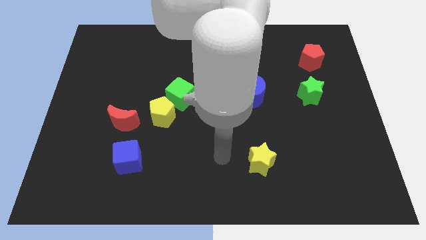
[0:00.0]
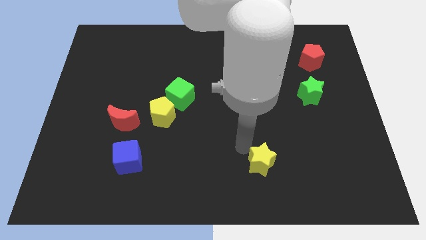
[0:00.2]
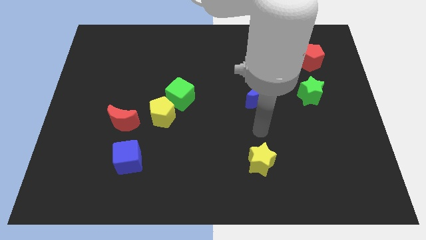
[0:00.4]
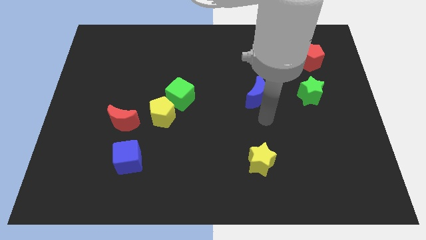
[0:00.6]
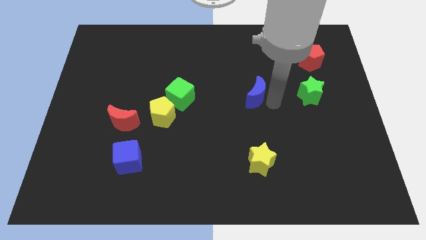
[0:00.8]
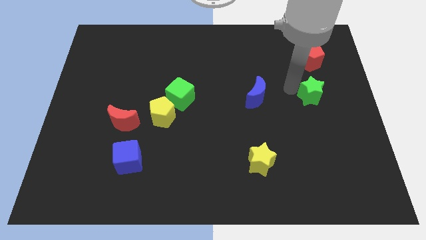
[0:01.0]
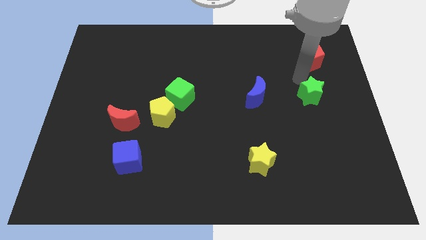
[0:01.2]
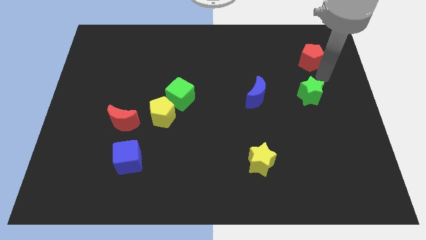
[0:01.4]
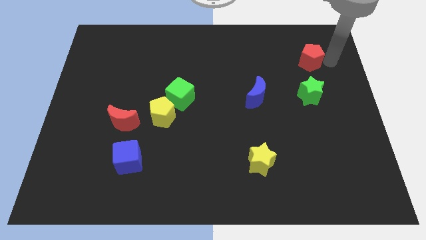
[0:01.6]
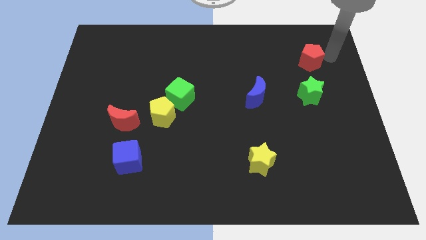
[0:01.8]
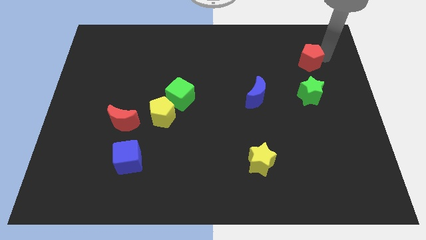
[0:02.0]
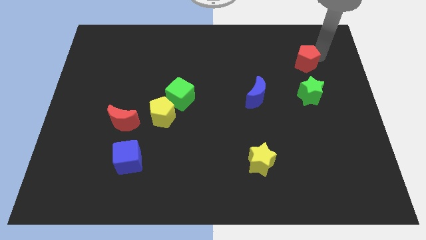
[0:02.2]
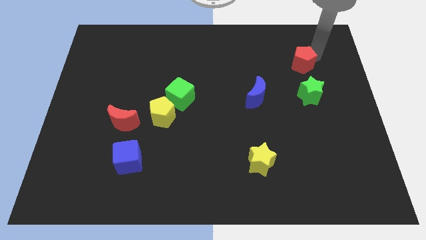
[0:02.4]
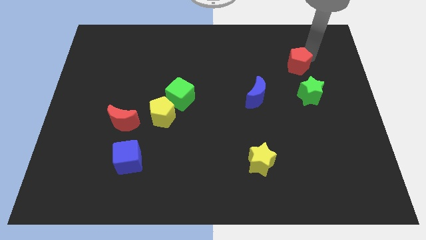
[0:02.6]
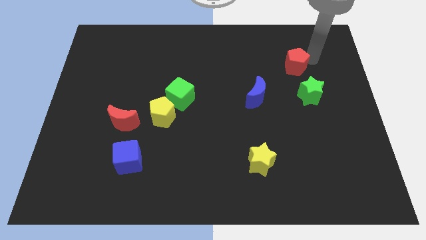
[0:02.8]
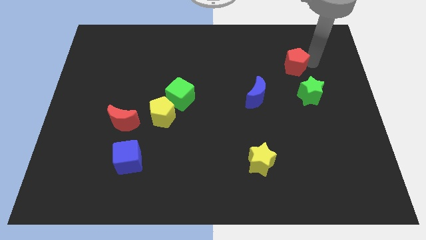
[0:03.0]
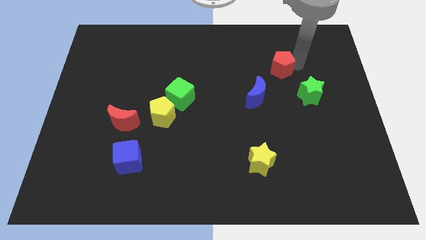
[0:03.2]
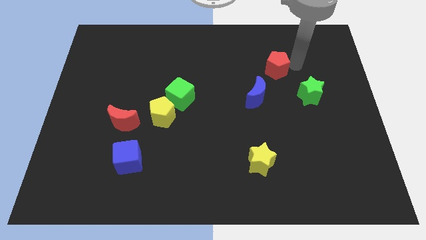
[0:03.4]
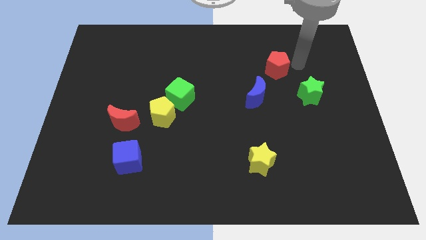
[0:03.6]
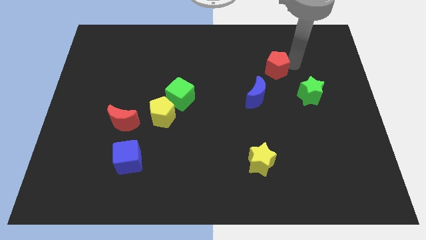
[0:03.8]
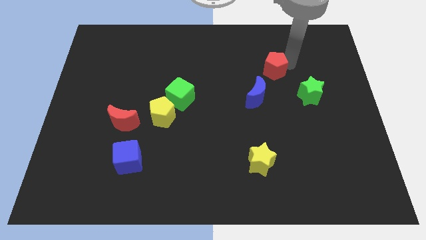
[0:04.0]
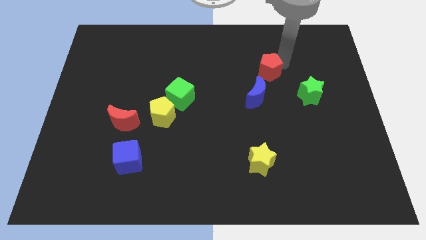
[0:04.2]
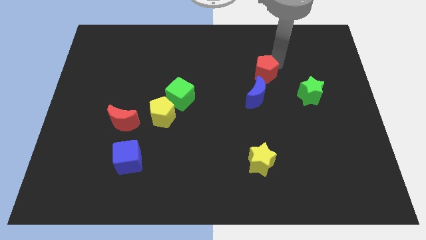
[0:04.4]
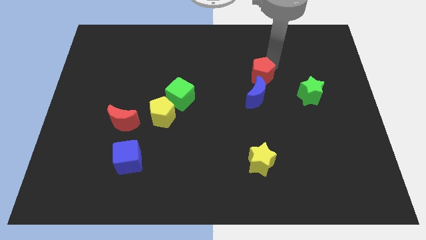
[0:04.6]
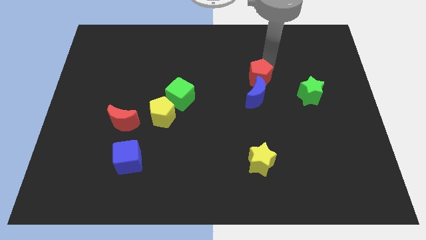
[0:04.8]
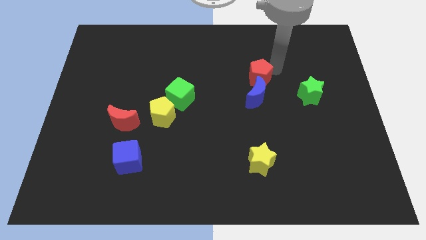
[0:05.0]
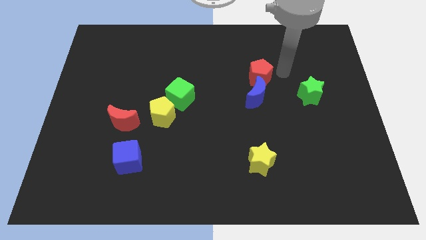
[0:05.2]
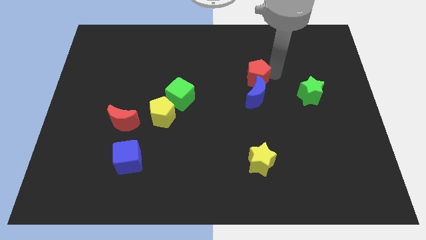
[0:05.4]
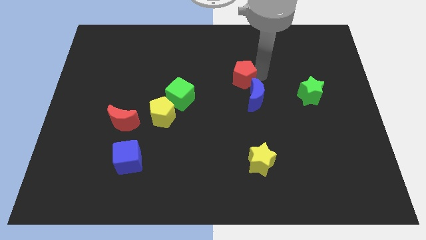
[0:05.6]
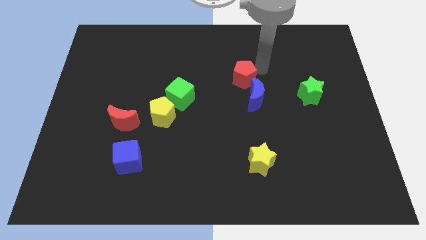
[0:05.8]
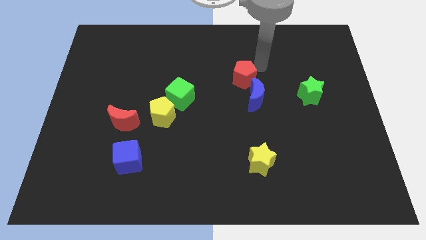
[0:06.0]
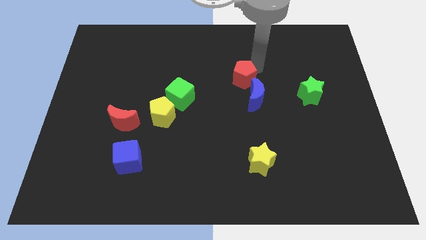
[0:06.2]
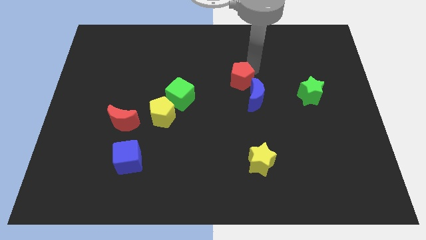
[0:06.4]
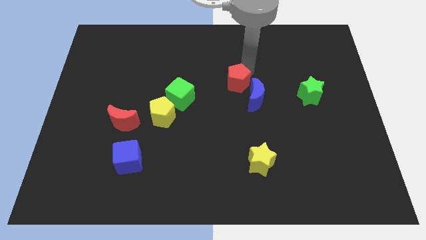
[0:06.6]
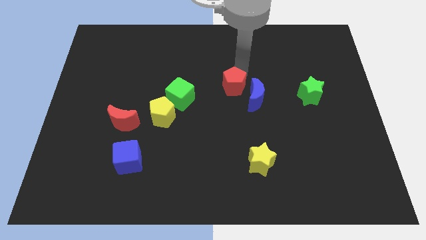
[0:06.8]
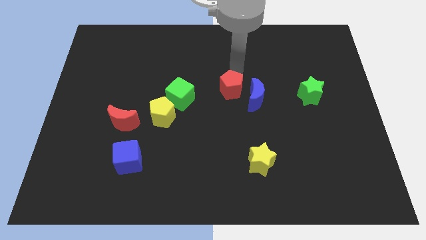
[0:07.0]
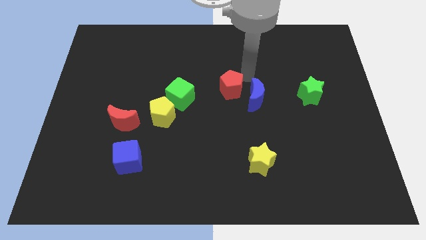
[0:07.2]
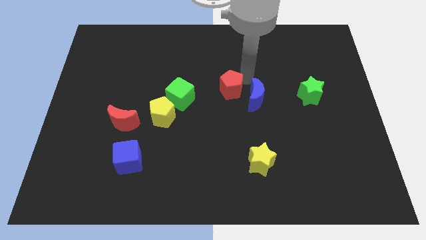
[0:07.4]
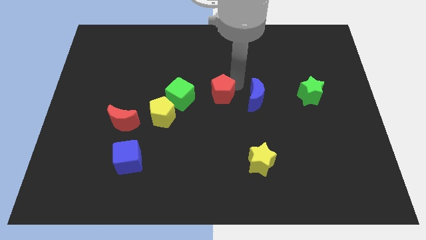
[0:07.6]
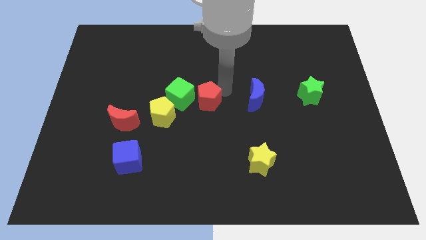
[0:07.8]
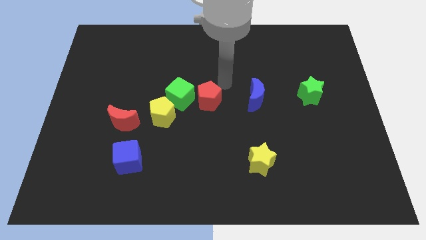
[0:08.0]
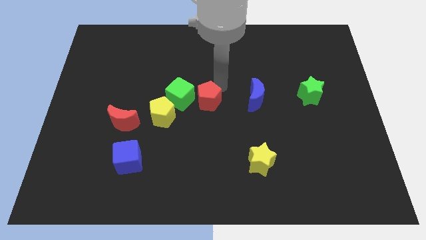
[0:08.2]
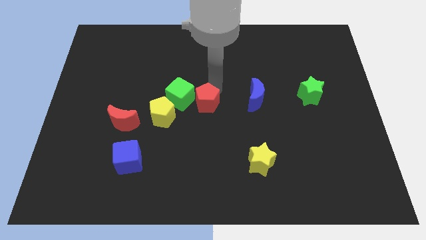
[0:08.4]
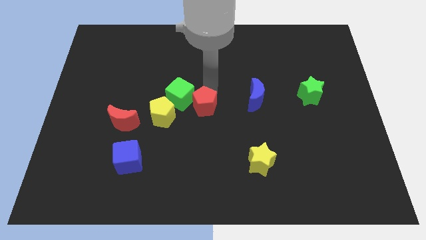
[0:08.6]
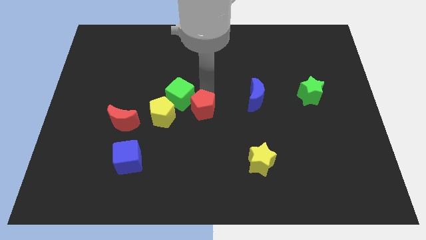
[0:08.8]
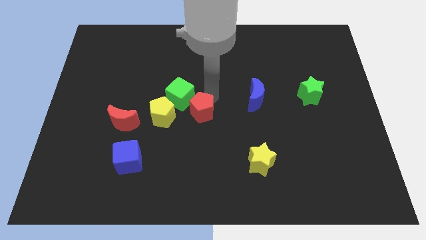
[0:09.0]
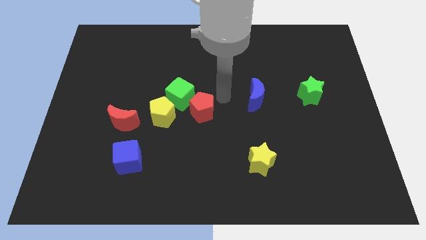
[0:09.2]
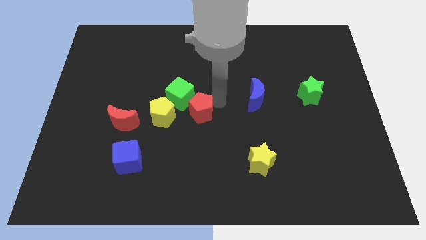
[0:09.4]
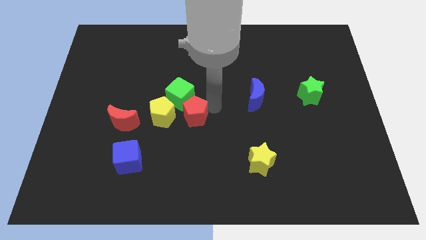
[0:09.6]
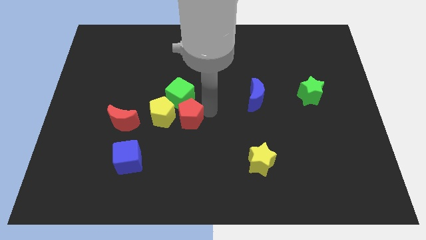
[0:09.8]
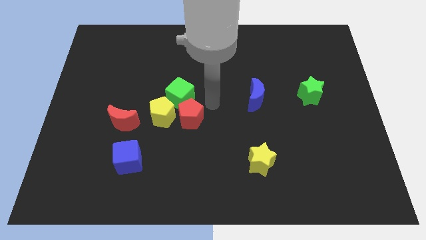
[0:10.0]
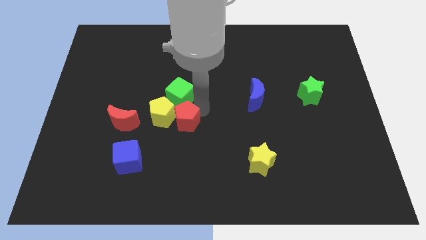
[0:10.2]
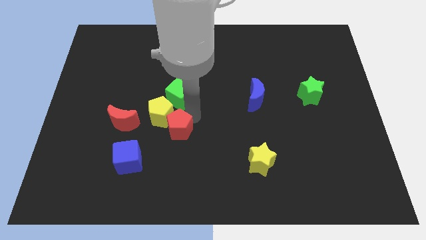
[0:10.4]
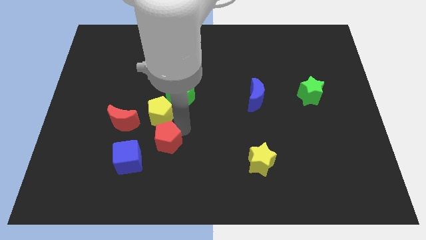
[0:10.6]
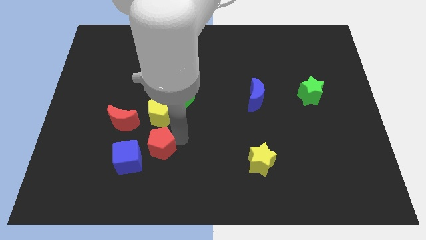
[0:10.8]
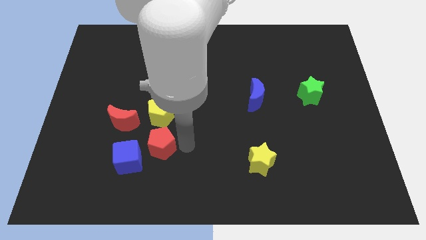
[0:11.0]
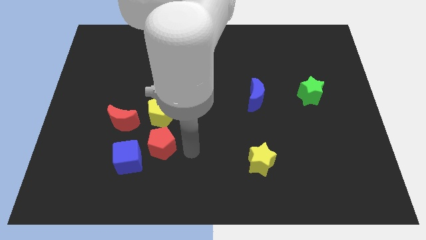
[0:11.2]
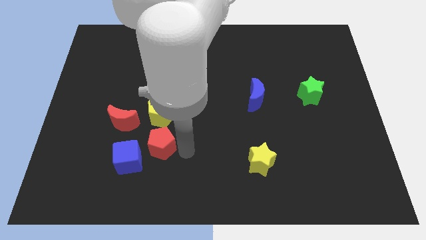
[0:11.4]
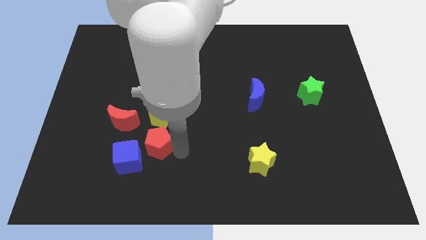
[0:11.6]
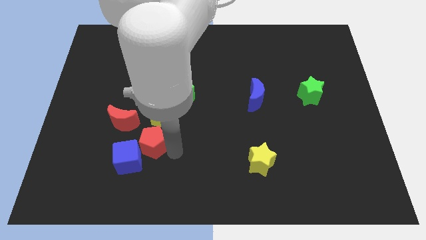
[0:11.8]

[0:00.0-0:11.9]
slide the red pentagon next to the blue cube

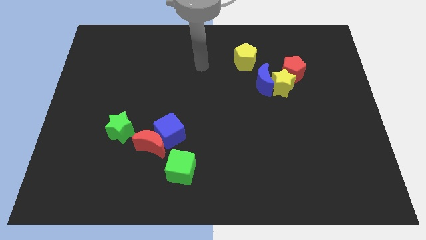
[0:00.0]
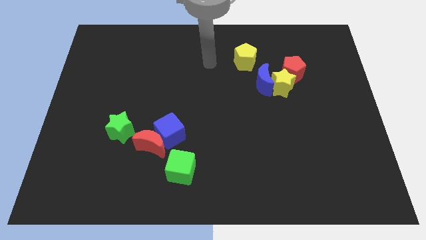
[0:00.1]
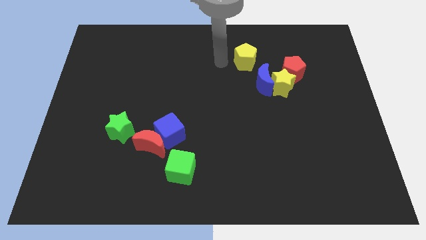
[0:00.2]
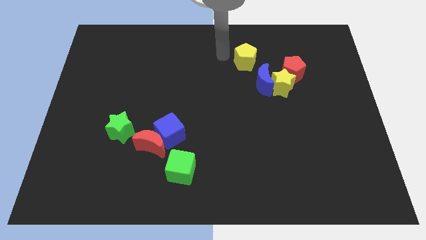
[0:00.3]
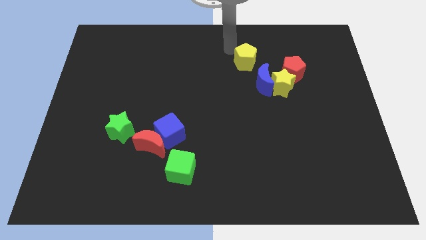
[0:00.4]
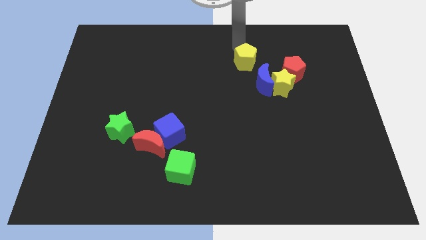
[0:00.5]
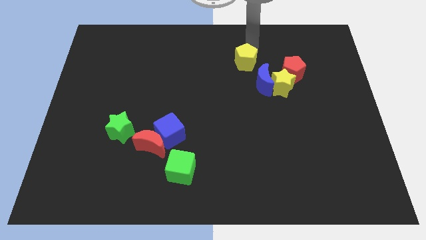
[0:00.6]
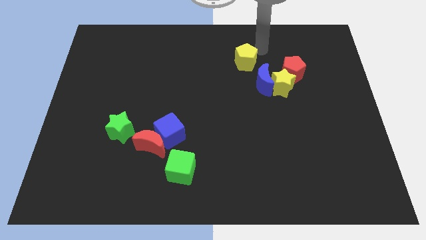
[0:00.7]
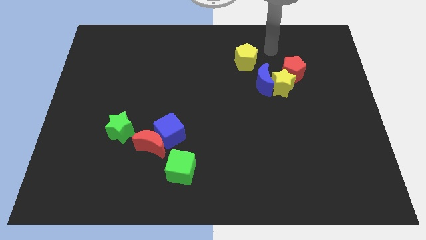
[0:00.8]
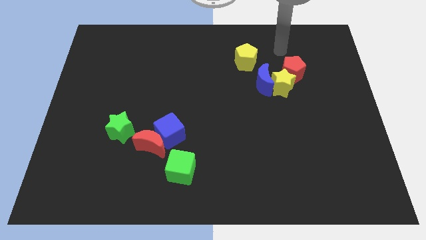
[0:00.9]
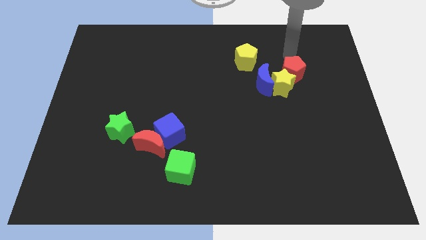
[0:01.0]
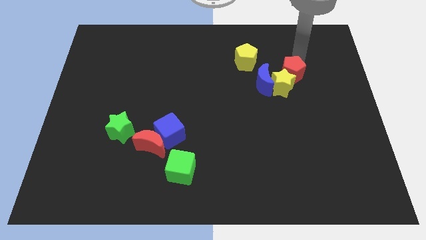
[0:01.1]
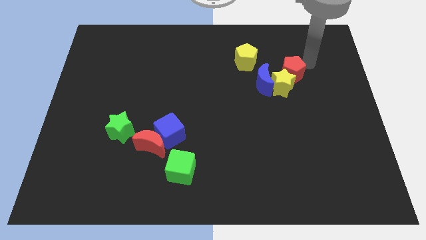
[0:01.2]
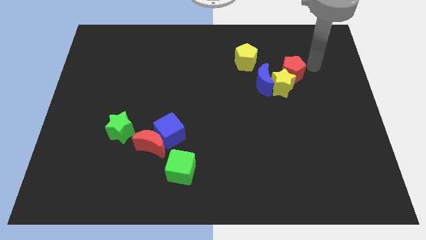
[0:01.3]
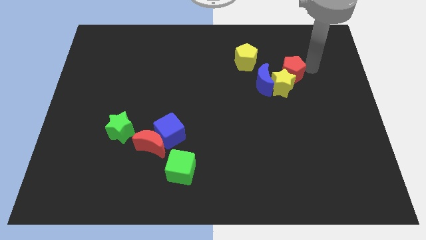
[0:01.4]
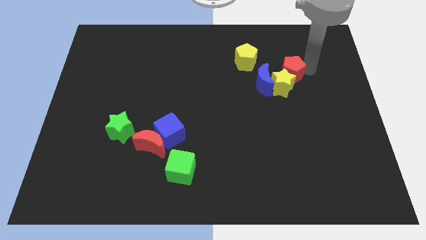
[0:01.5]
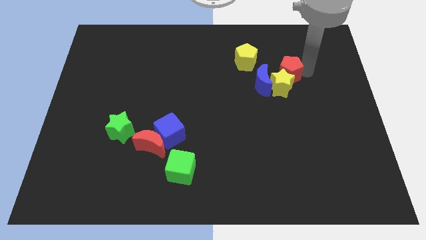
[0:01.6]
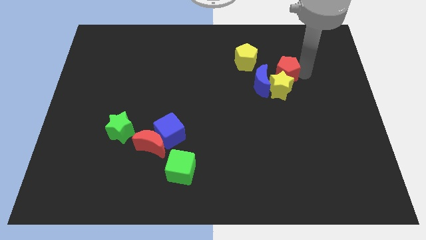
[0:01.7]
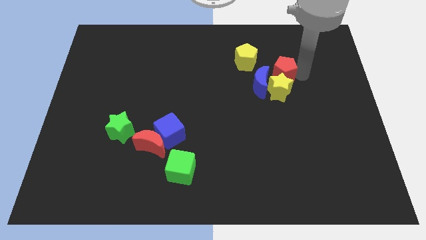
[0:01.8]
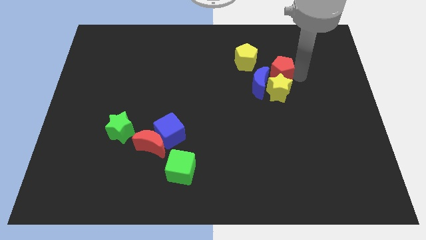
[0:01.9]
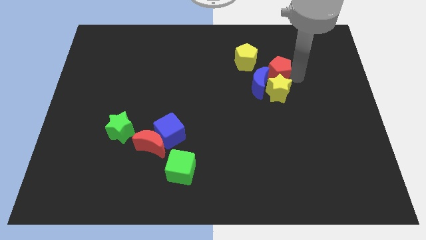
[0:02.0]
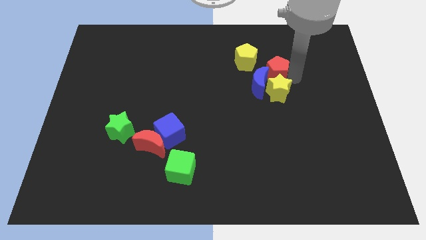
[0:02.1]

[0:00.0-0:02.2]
put the red pentagon to the blue moon

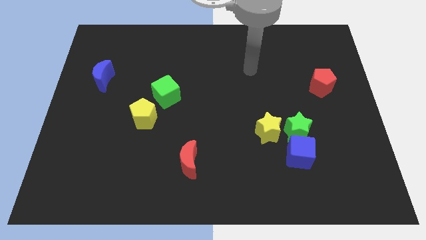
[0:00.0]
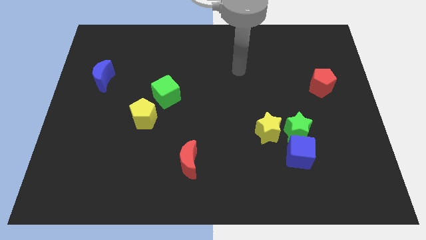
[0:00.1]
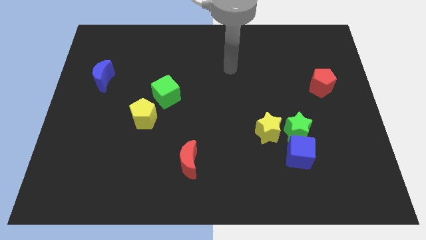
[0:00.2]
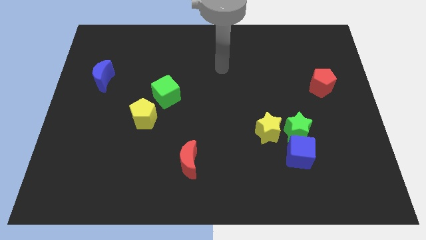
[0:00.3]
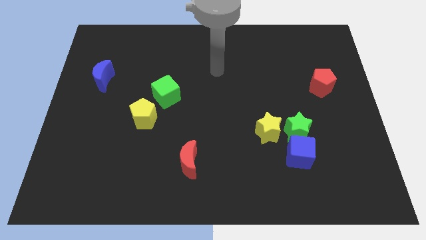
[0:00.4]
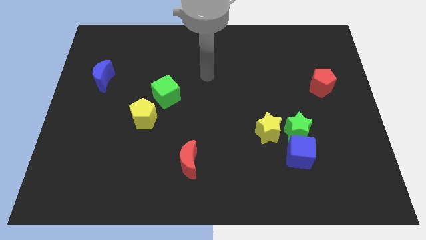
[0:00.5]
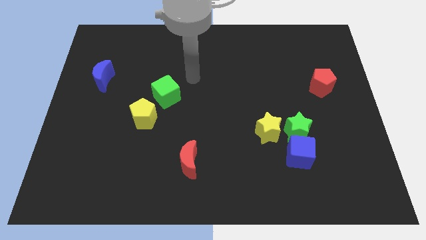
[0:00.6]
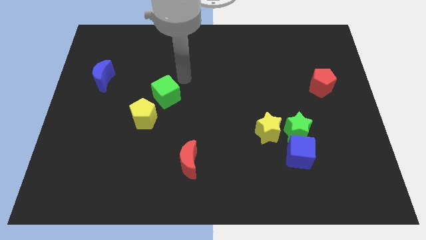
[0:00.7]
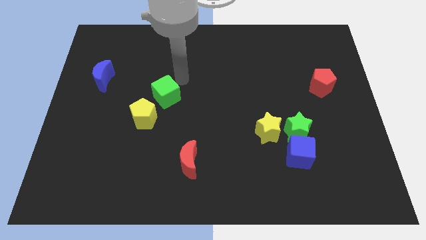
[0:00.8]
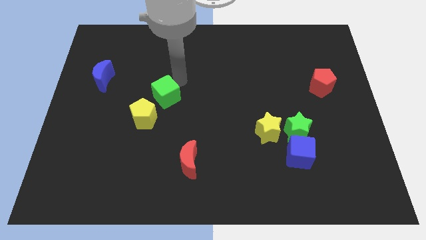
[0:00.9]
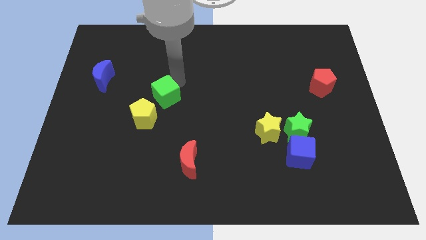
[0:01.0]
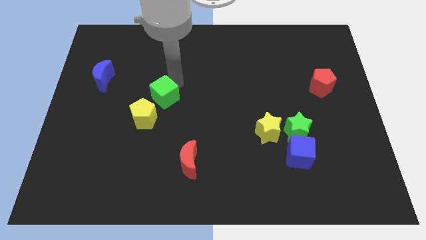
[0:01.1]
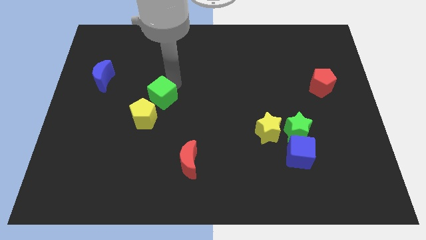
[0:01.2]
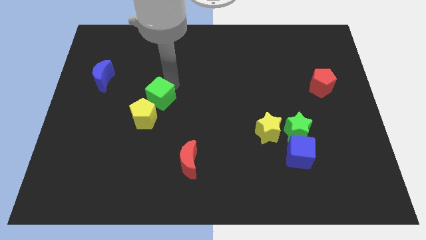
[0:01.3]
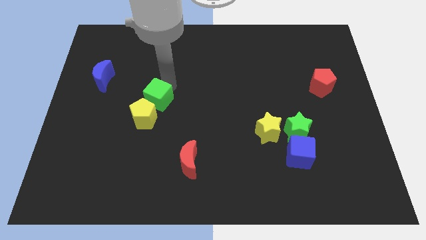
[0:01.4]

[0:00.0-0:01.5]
move the green cube towards the yellow pentagon
